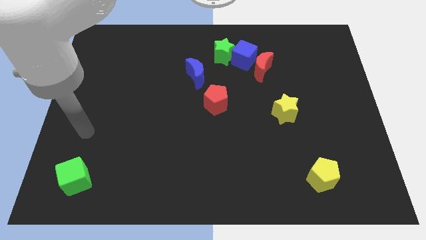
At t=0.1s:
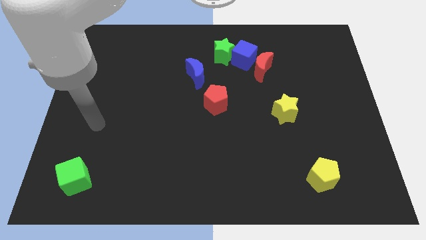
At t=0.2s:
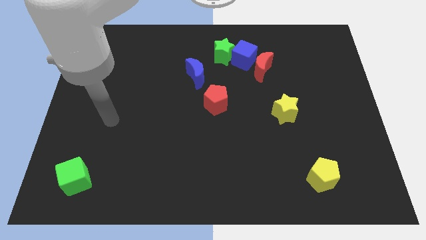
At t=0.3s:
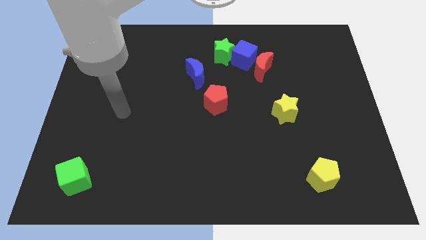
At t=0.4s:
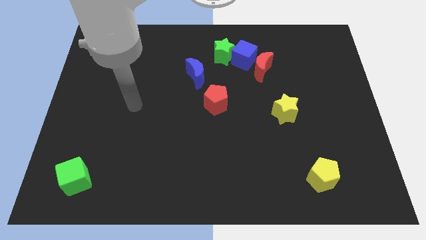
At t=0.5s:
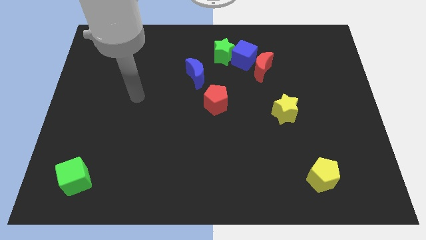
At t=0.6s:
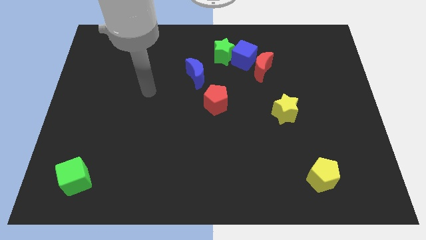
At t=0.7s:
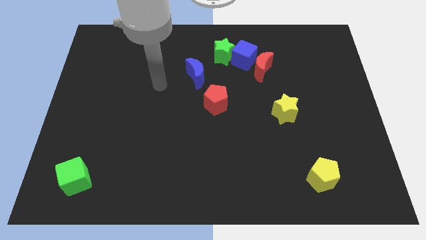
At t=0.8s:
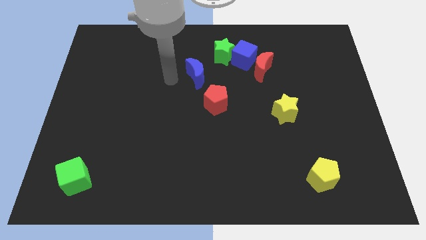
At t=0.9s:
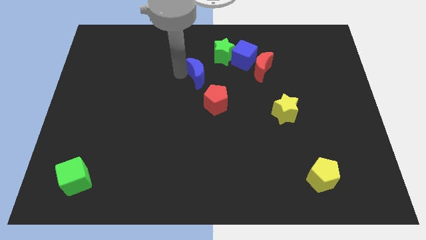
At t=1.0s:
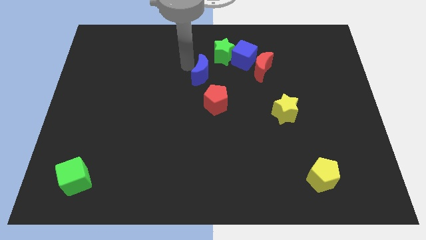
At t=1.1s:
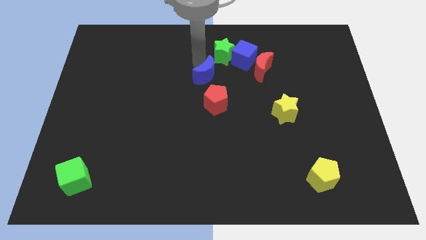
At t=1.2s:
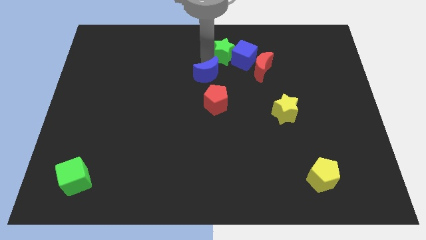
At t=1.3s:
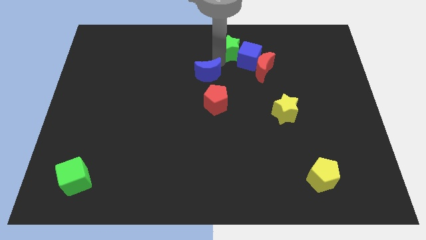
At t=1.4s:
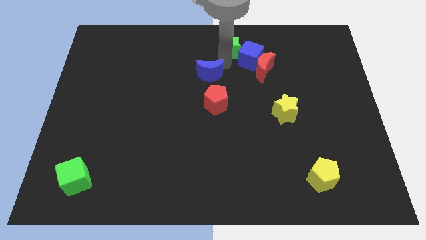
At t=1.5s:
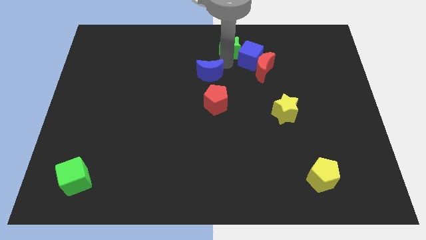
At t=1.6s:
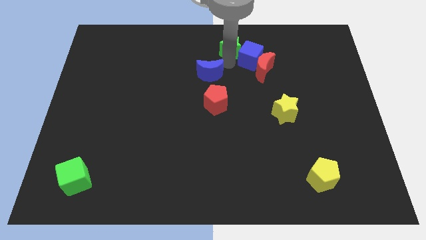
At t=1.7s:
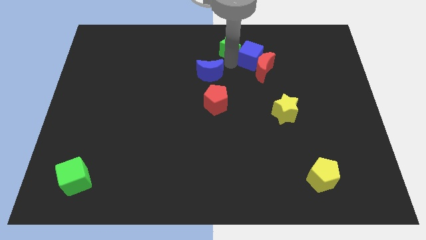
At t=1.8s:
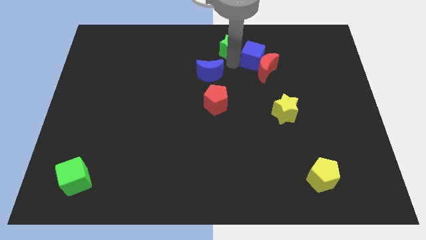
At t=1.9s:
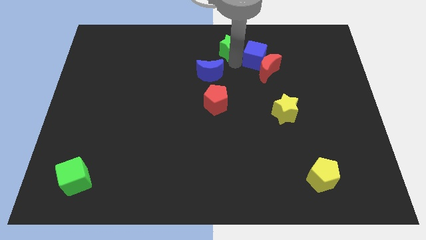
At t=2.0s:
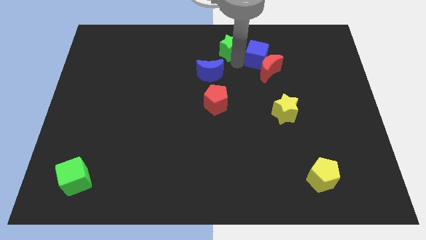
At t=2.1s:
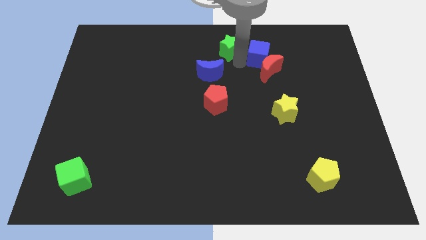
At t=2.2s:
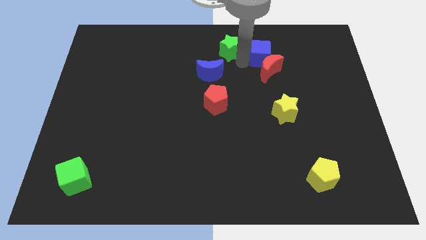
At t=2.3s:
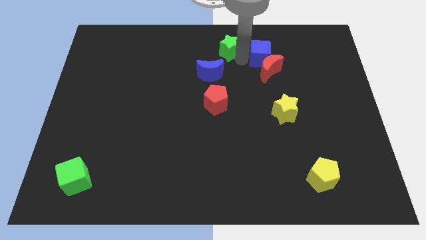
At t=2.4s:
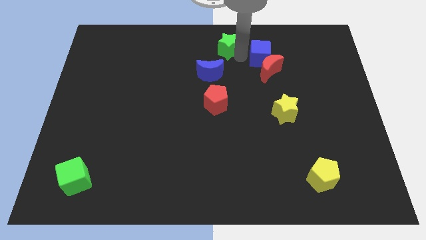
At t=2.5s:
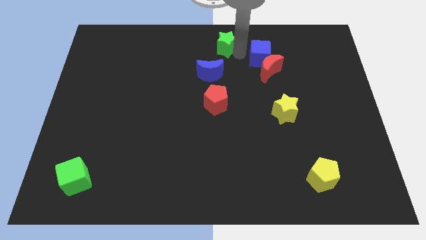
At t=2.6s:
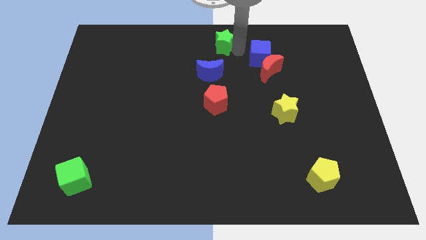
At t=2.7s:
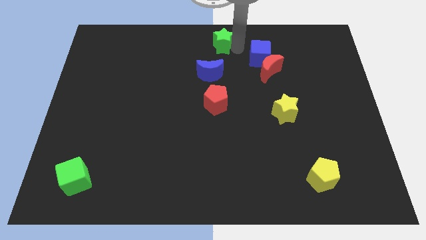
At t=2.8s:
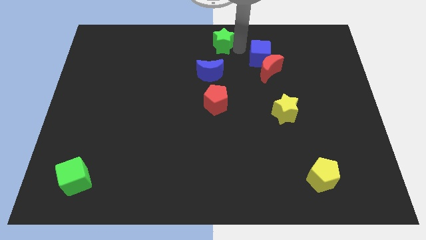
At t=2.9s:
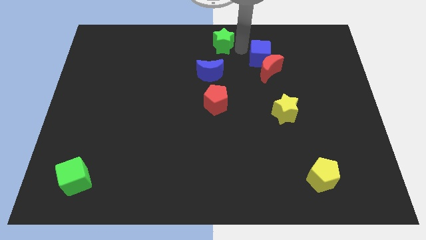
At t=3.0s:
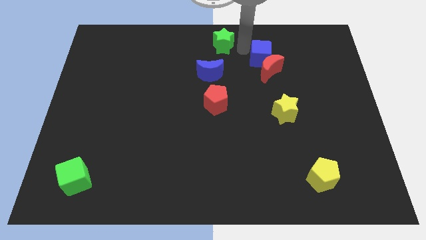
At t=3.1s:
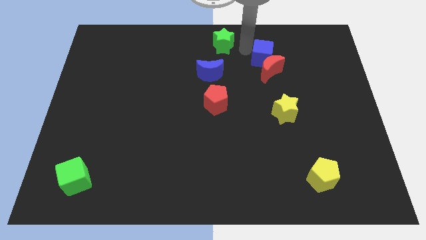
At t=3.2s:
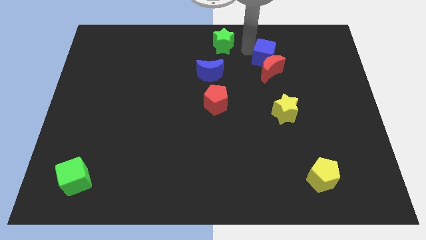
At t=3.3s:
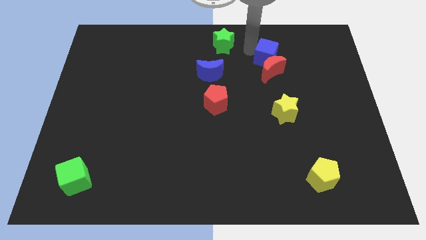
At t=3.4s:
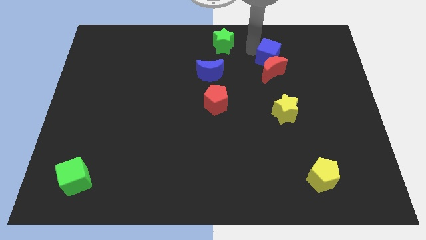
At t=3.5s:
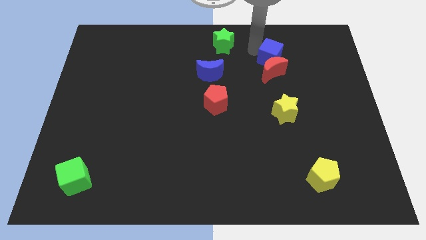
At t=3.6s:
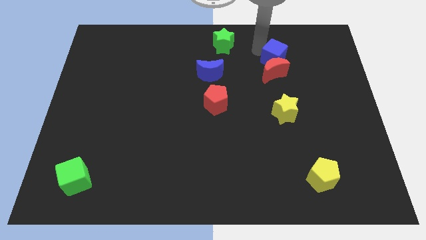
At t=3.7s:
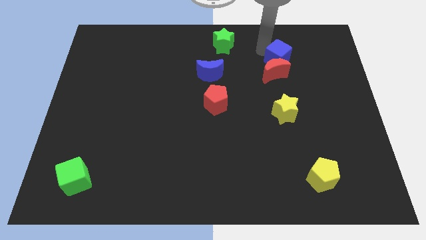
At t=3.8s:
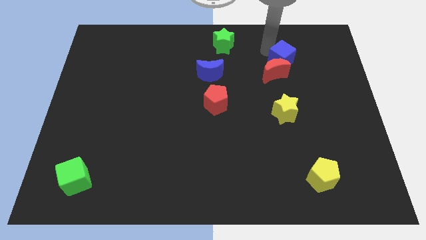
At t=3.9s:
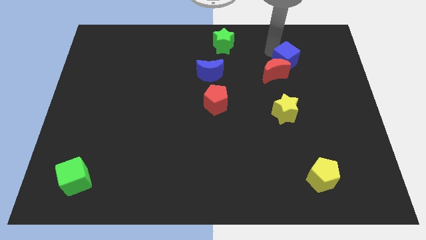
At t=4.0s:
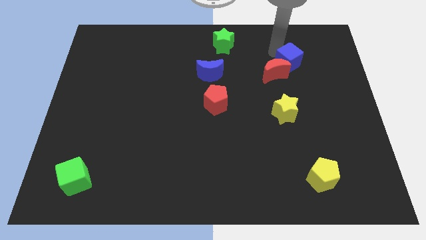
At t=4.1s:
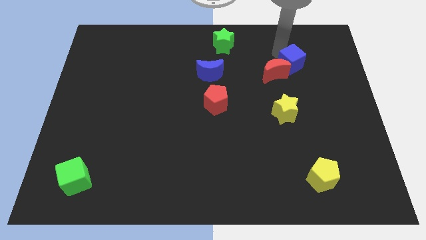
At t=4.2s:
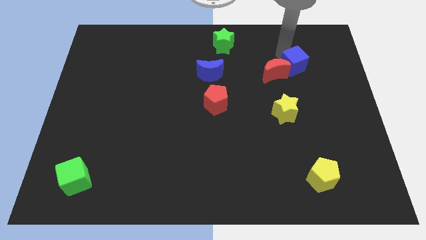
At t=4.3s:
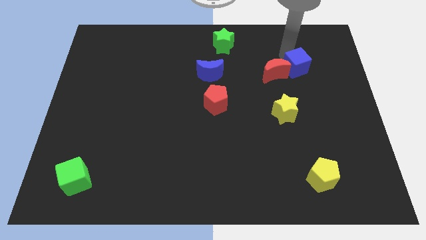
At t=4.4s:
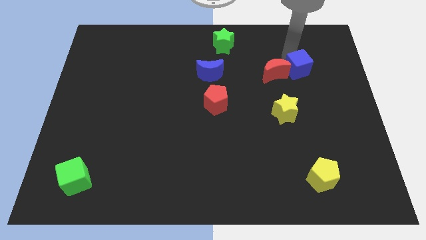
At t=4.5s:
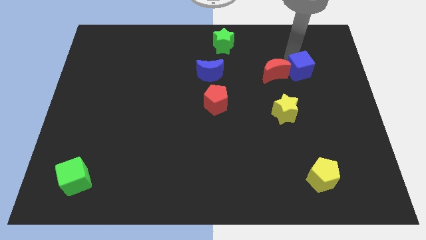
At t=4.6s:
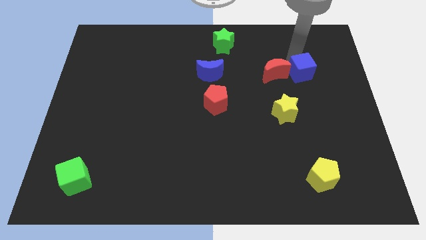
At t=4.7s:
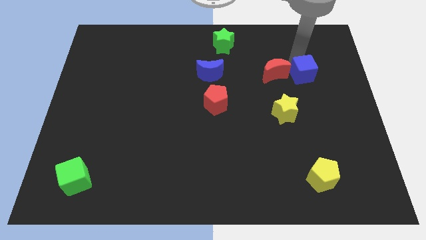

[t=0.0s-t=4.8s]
slide the blue cube to the bottom right of the red moon

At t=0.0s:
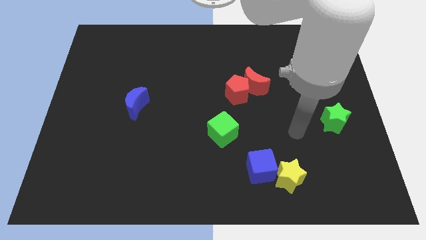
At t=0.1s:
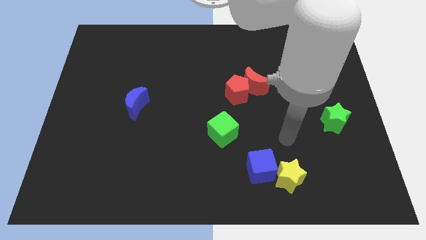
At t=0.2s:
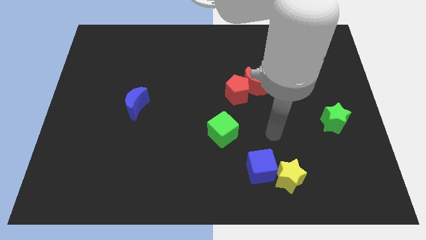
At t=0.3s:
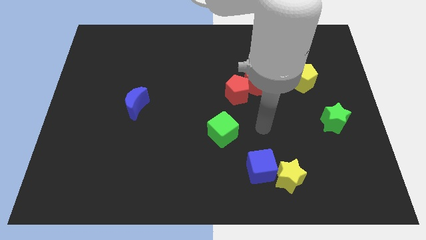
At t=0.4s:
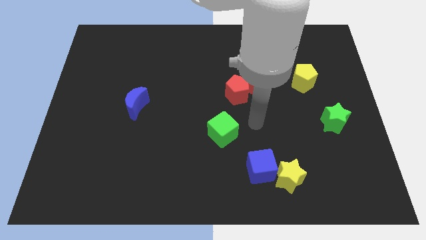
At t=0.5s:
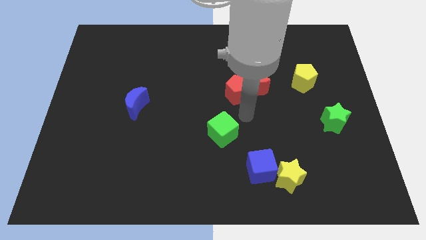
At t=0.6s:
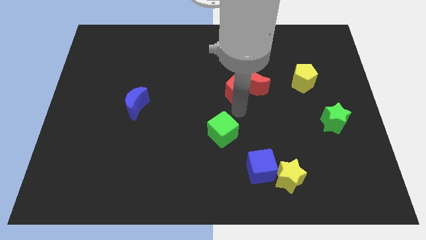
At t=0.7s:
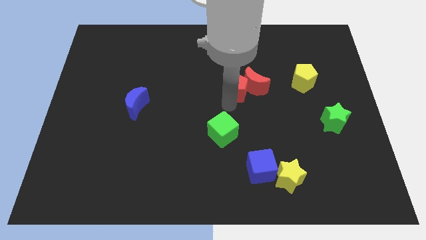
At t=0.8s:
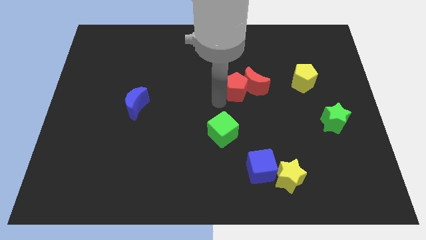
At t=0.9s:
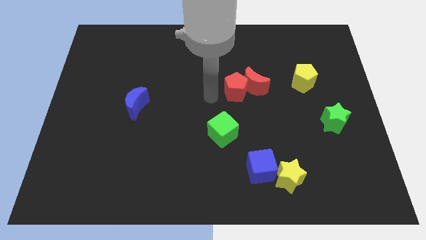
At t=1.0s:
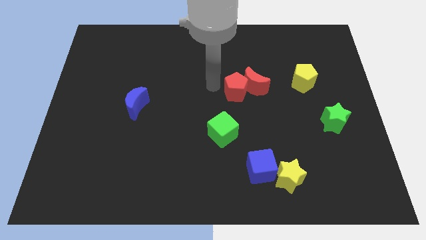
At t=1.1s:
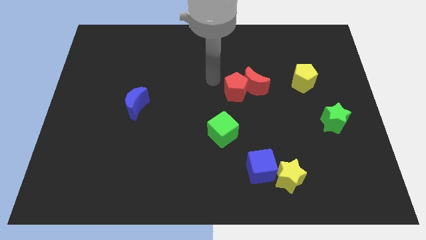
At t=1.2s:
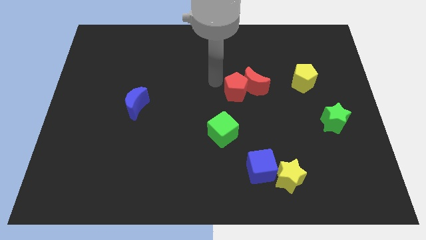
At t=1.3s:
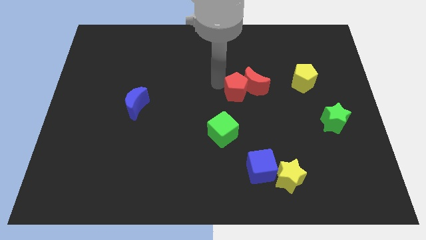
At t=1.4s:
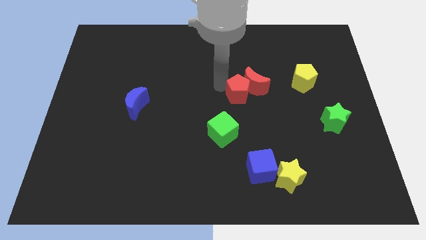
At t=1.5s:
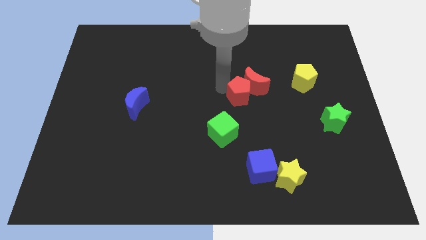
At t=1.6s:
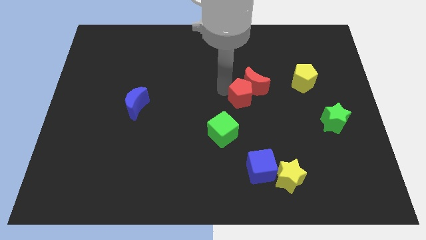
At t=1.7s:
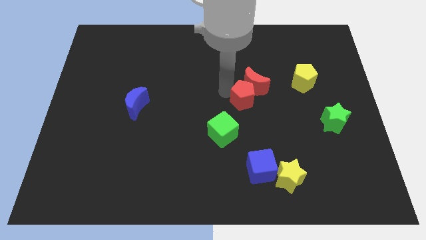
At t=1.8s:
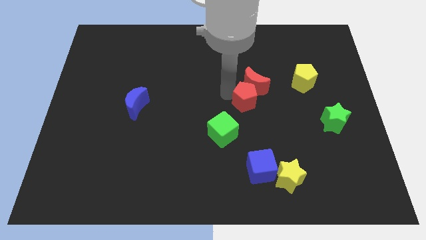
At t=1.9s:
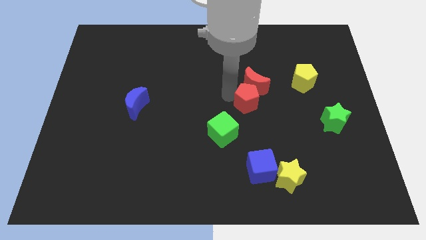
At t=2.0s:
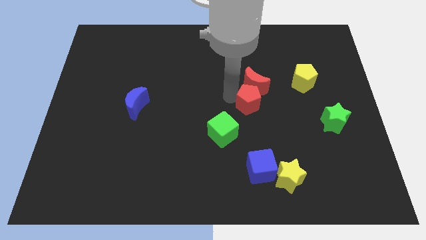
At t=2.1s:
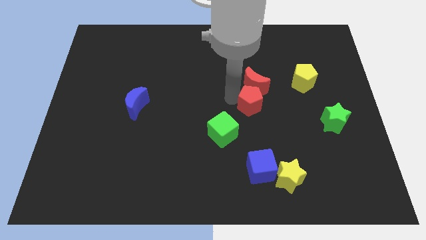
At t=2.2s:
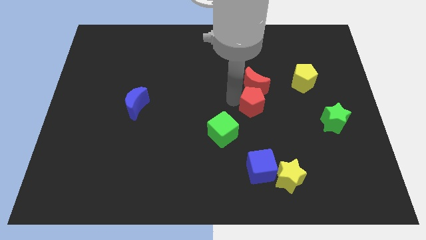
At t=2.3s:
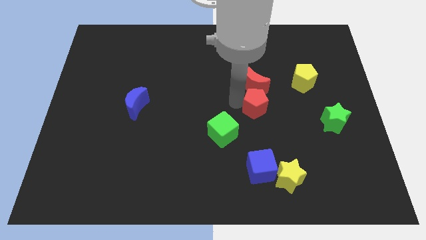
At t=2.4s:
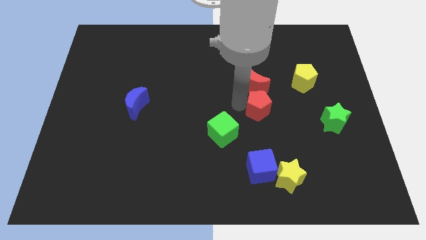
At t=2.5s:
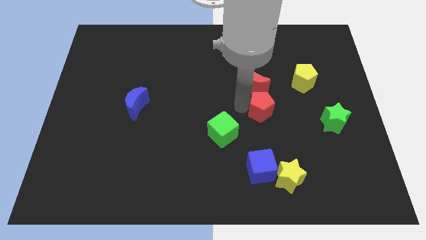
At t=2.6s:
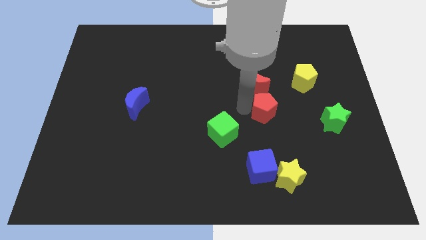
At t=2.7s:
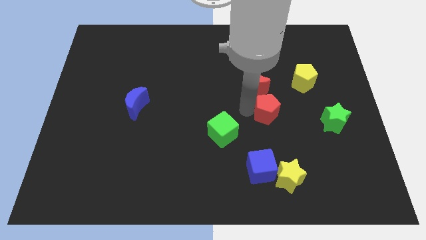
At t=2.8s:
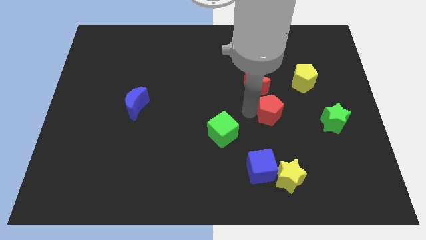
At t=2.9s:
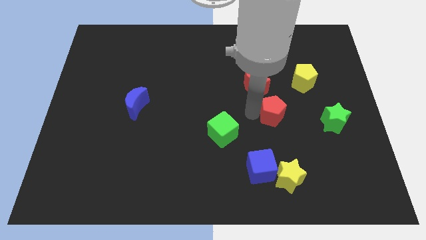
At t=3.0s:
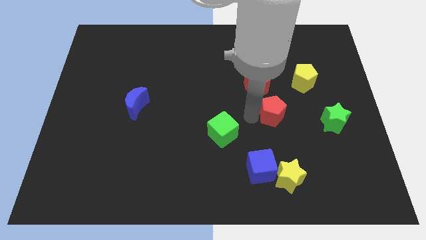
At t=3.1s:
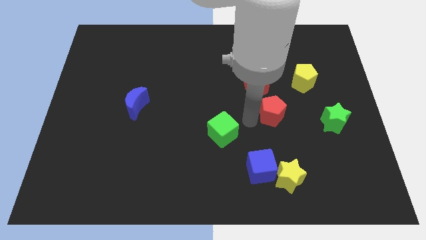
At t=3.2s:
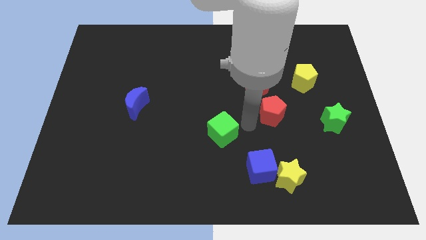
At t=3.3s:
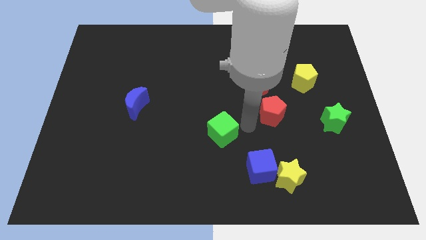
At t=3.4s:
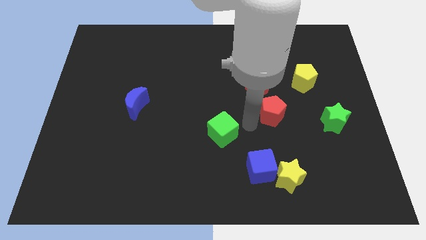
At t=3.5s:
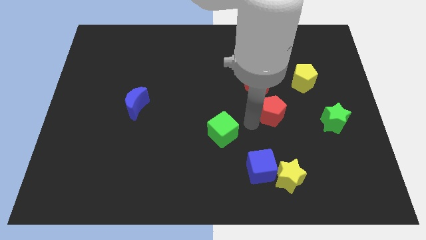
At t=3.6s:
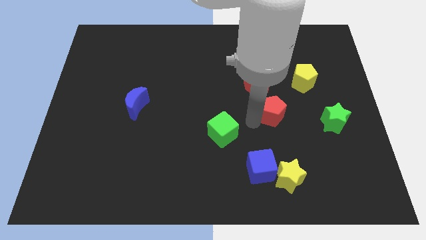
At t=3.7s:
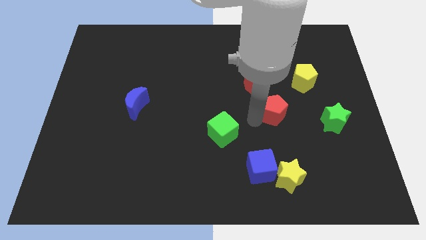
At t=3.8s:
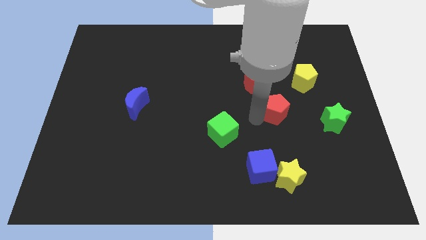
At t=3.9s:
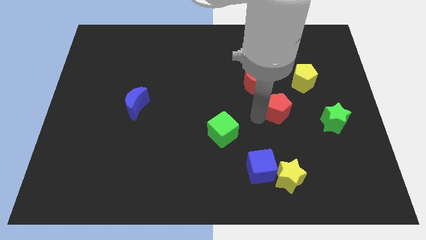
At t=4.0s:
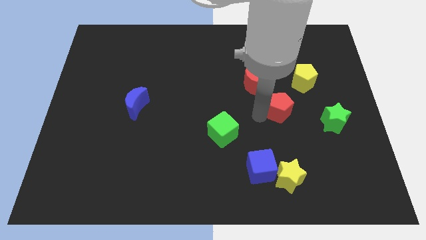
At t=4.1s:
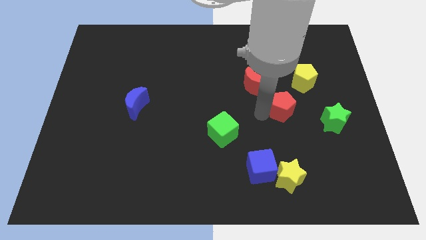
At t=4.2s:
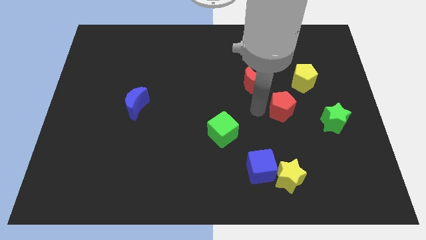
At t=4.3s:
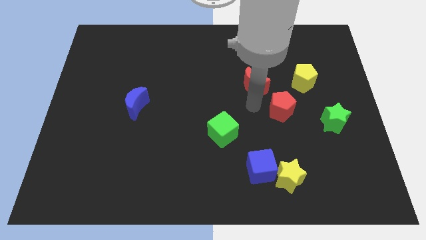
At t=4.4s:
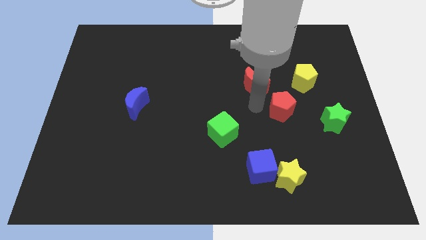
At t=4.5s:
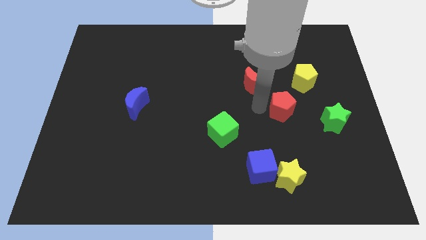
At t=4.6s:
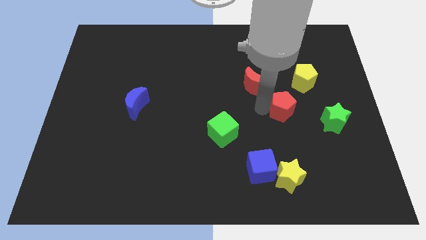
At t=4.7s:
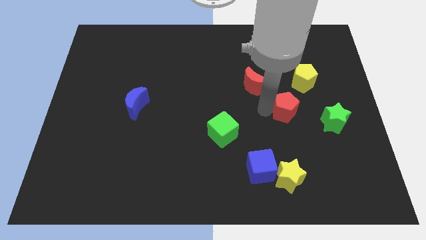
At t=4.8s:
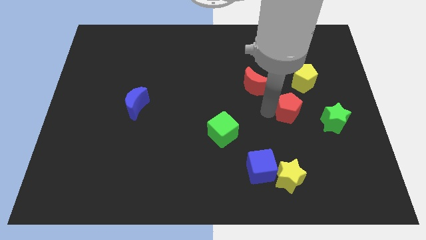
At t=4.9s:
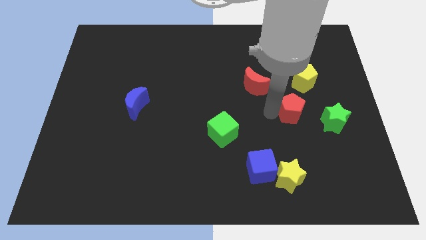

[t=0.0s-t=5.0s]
put the red pentagon below the yellow pentagon
